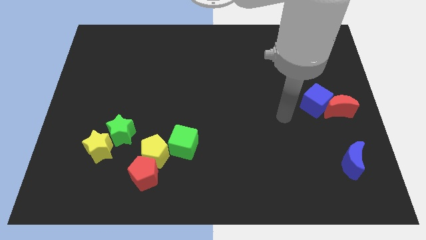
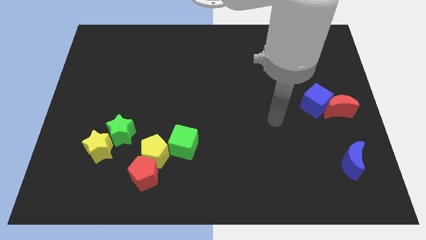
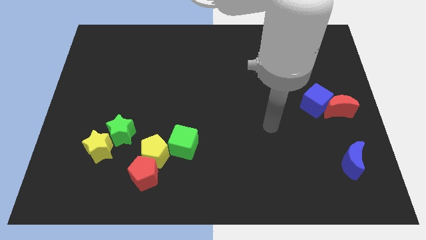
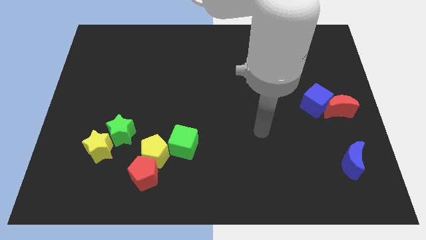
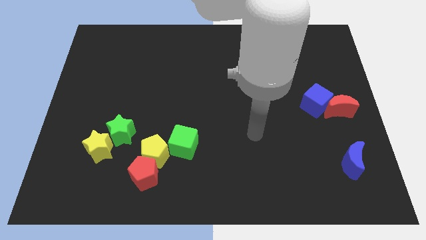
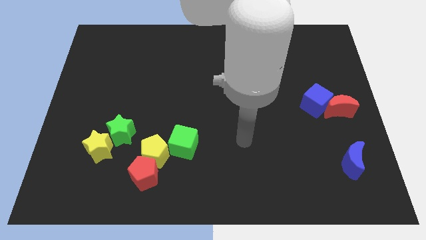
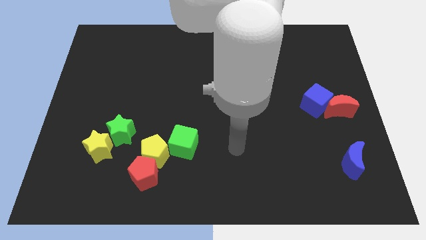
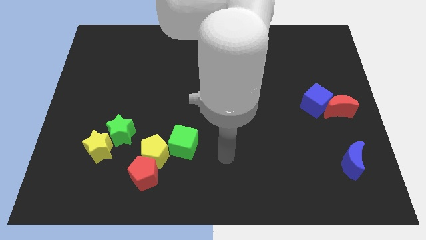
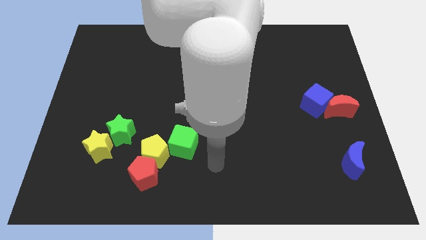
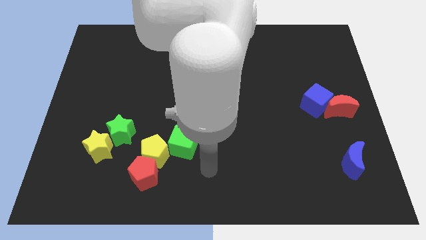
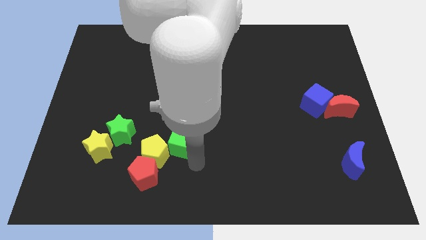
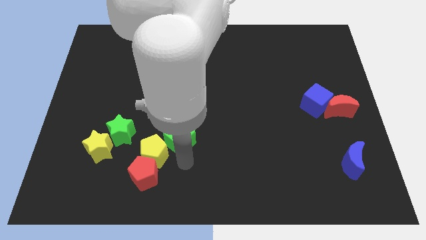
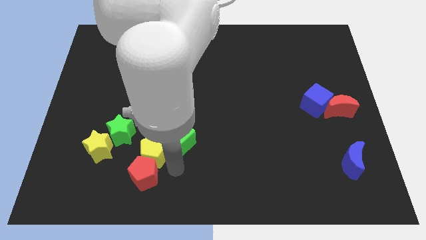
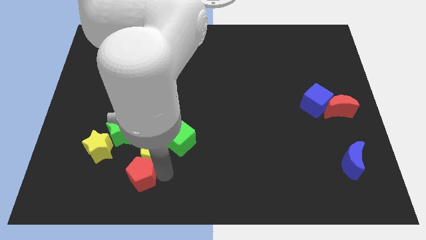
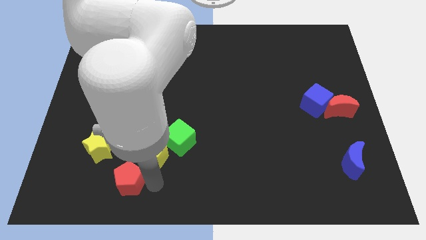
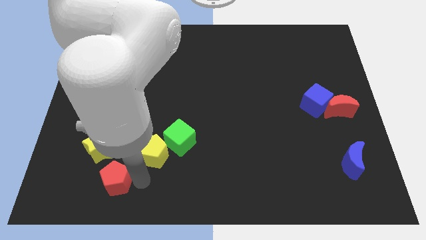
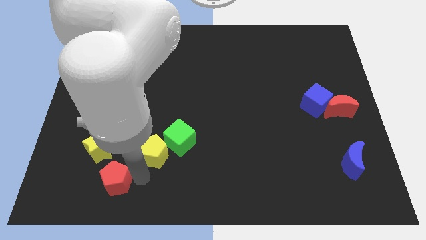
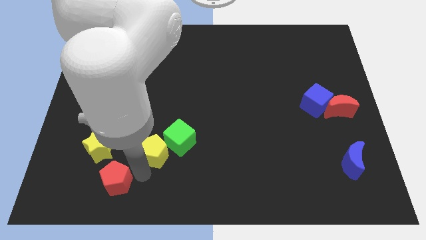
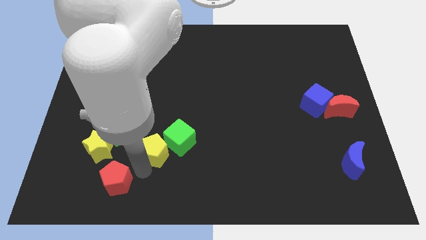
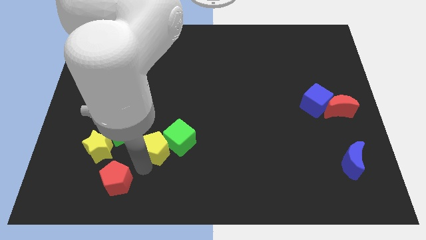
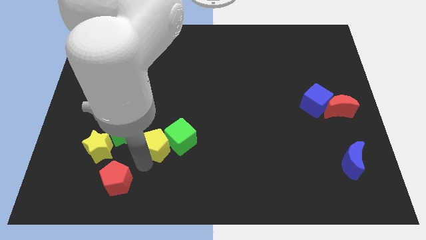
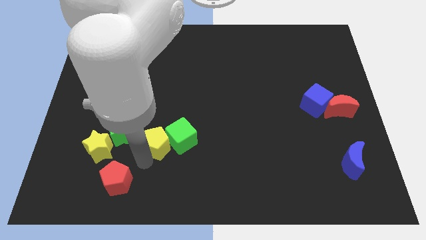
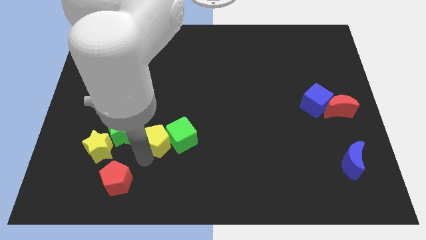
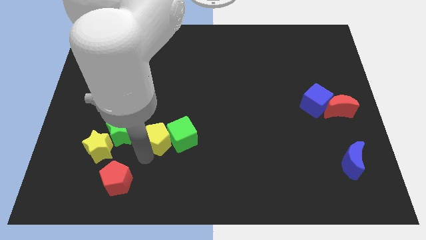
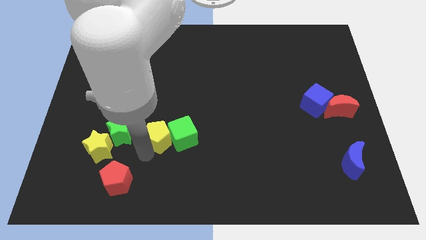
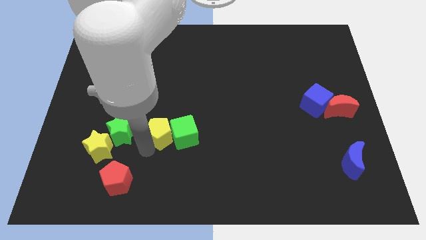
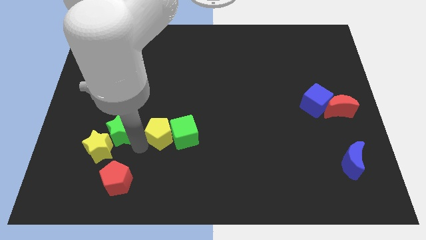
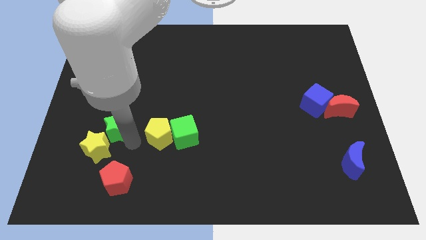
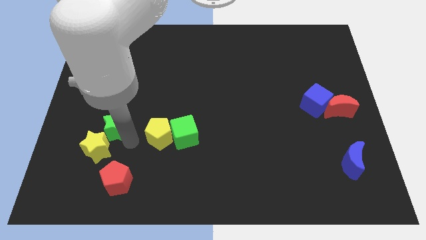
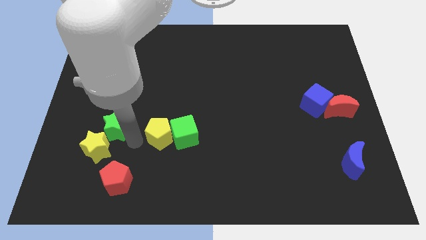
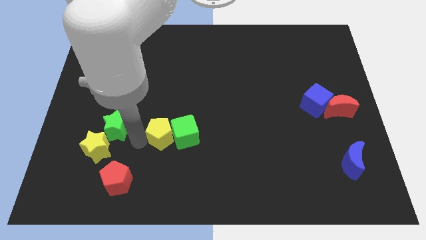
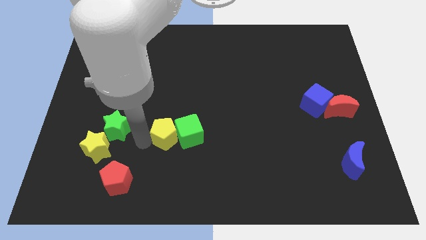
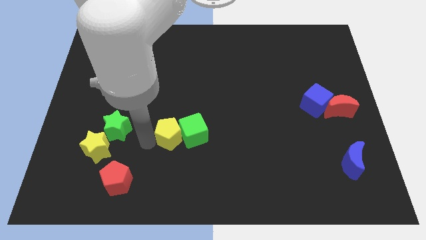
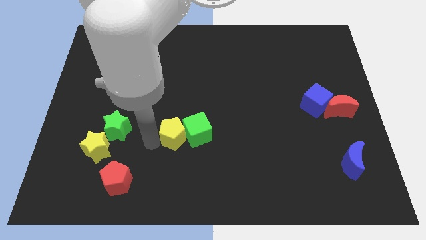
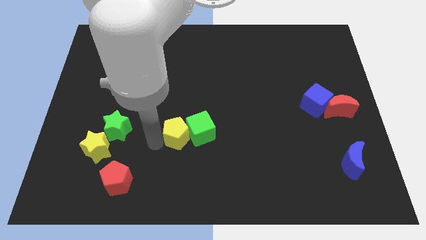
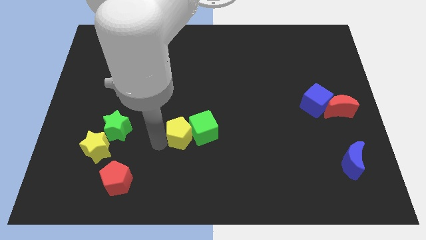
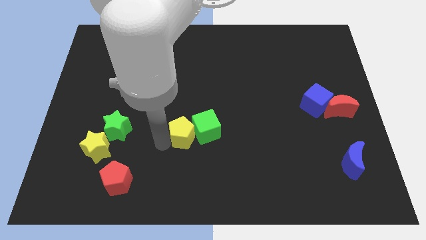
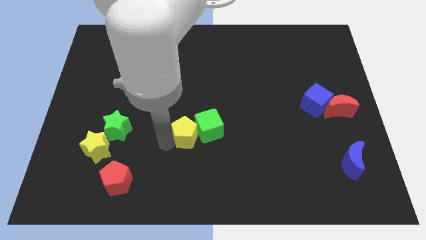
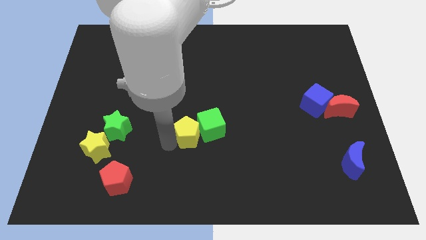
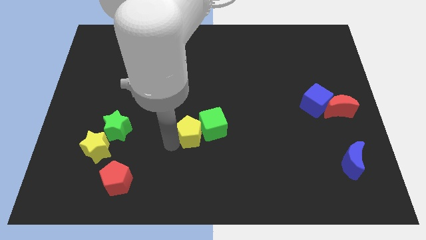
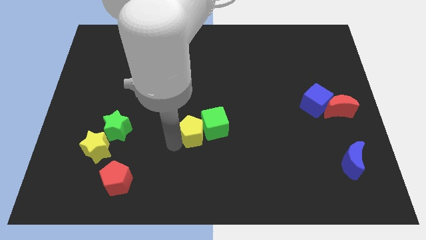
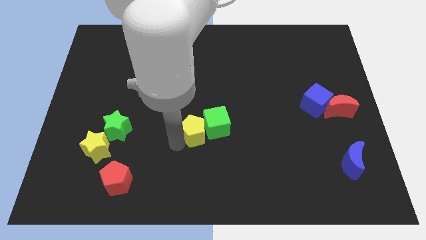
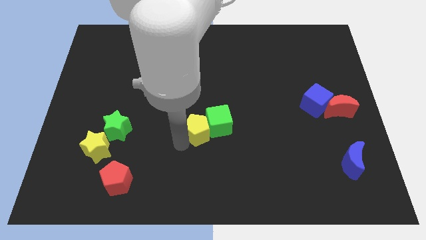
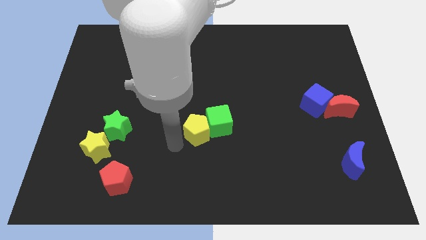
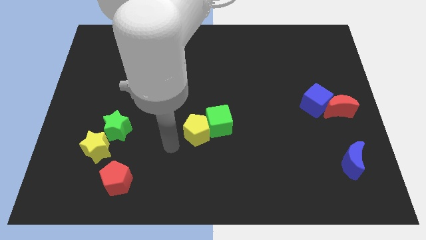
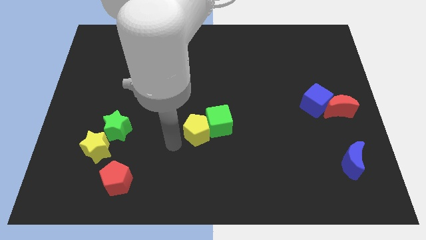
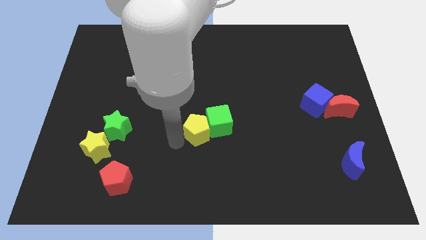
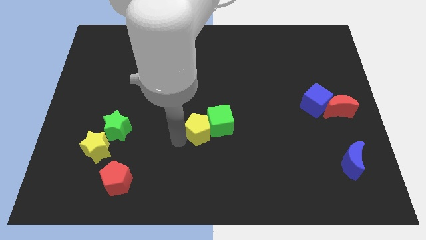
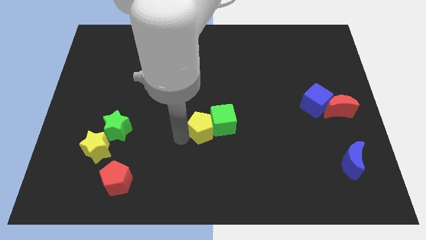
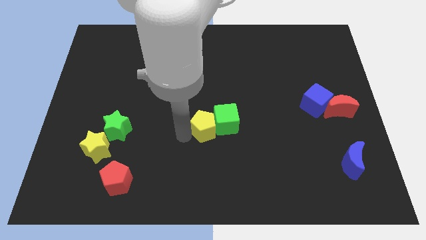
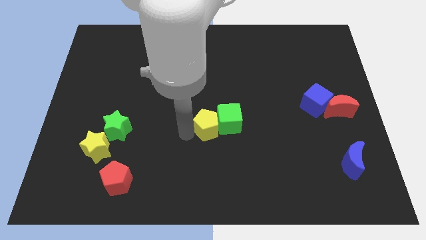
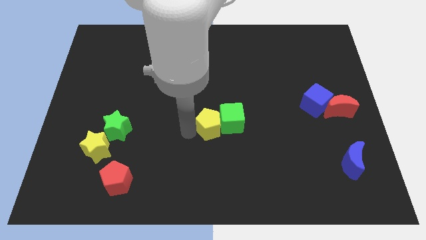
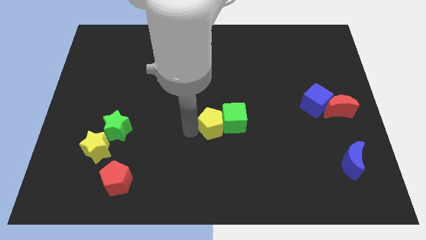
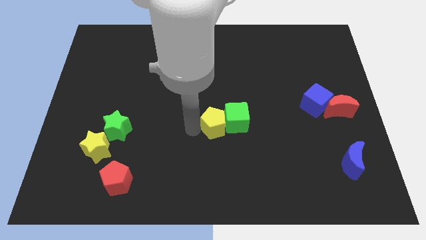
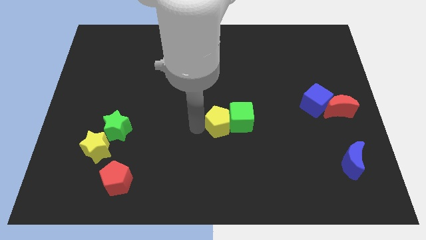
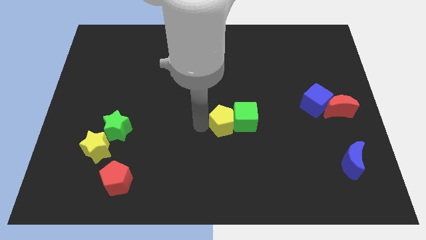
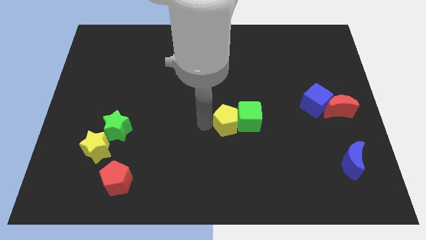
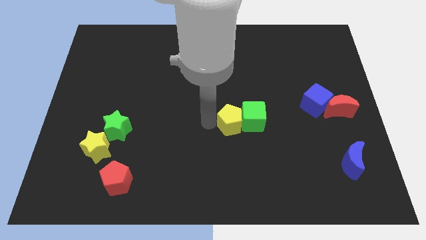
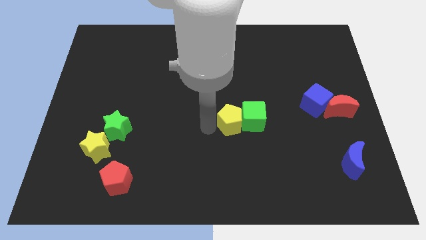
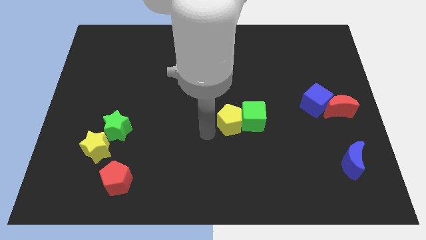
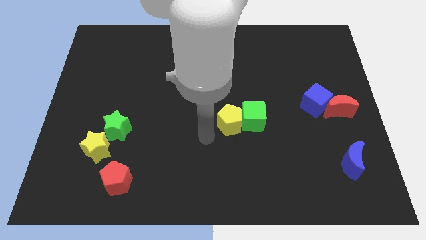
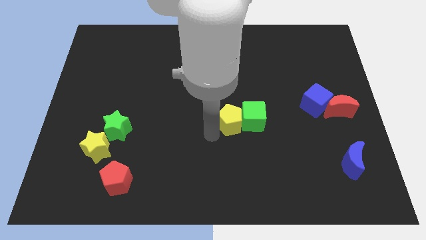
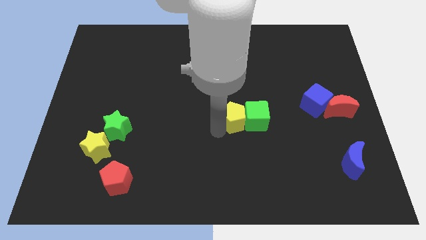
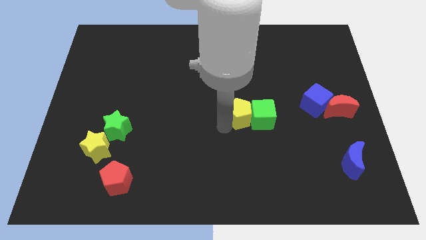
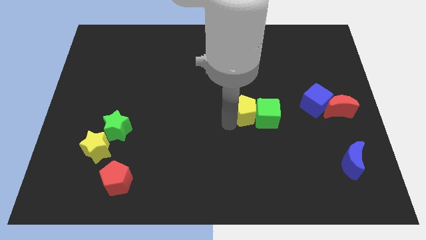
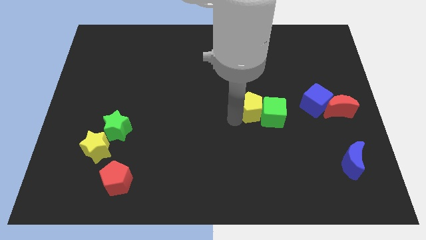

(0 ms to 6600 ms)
put the yellow pentagon to the left of the blue cube
